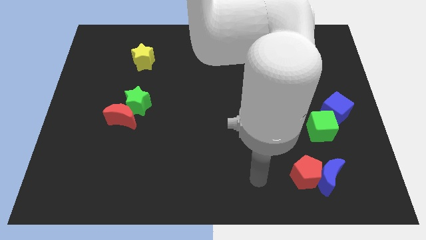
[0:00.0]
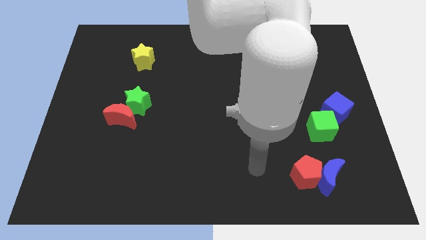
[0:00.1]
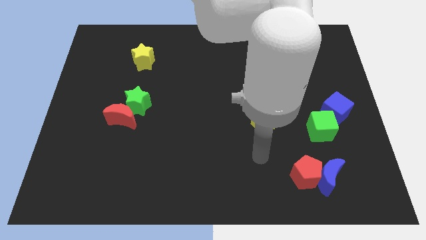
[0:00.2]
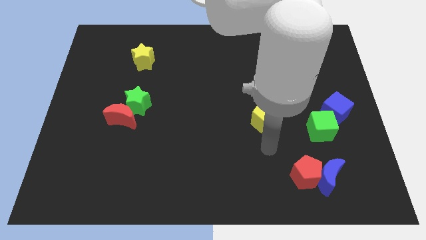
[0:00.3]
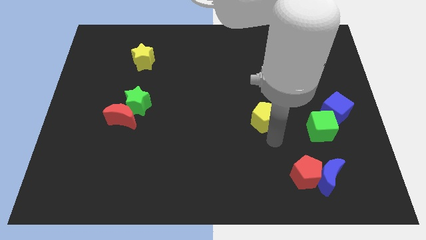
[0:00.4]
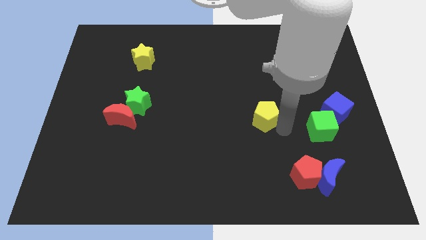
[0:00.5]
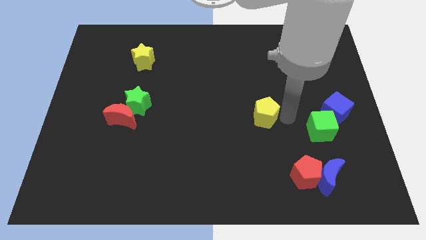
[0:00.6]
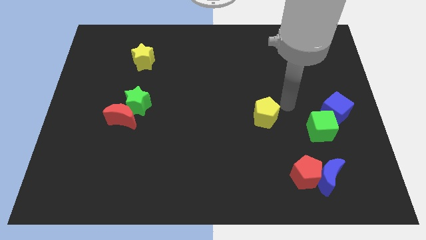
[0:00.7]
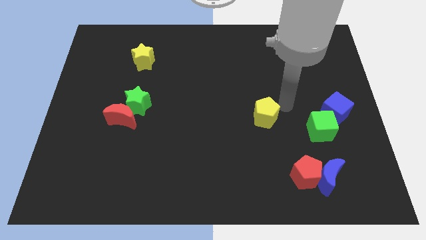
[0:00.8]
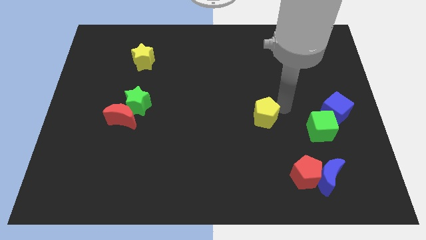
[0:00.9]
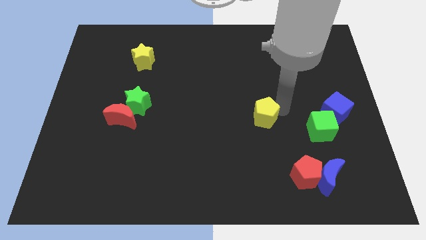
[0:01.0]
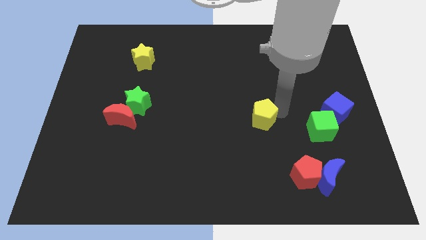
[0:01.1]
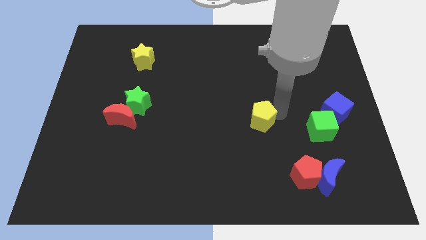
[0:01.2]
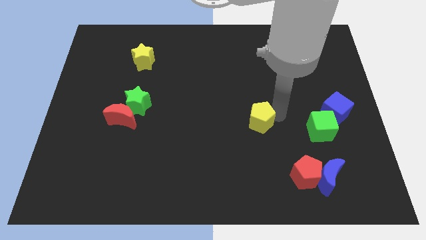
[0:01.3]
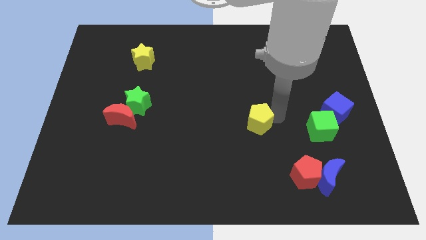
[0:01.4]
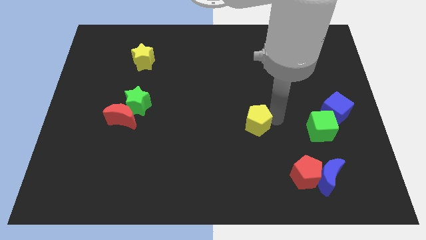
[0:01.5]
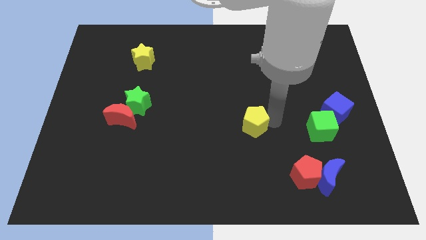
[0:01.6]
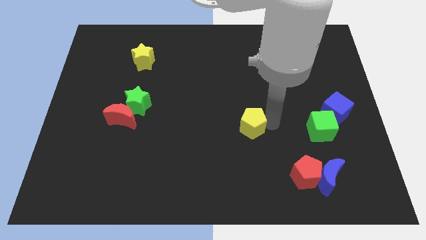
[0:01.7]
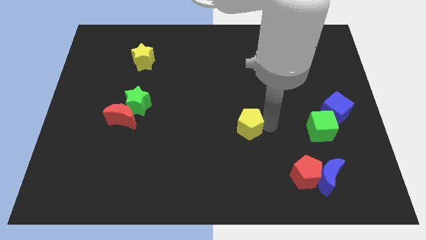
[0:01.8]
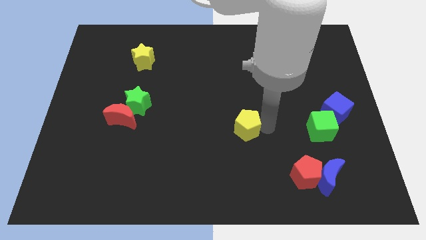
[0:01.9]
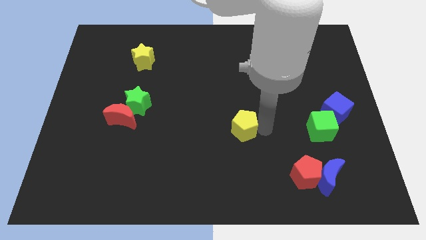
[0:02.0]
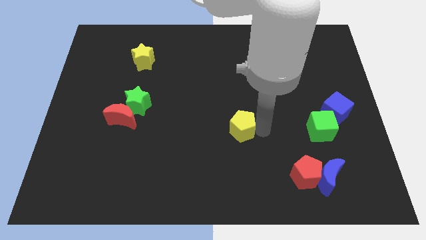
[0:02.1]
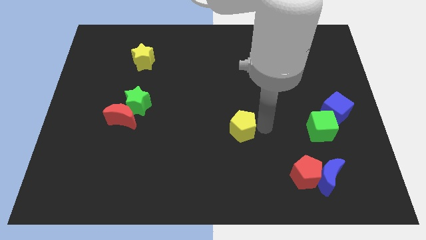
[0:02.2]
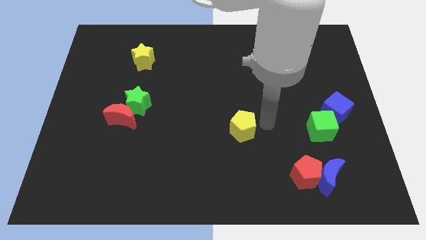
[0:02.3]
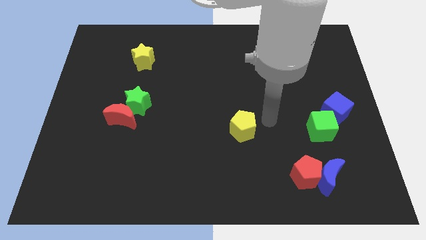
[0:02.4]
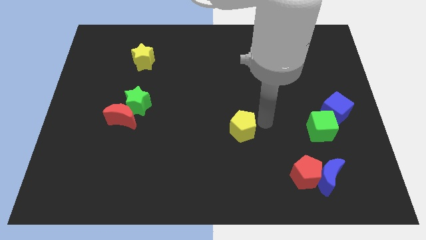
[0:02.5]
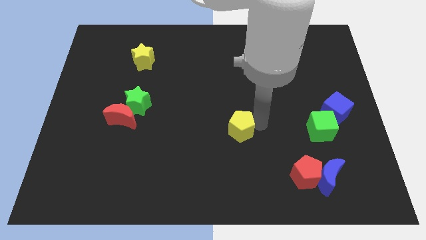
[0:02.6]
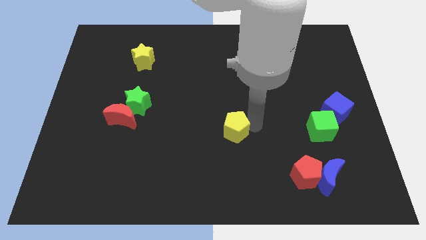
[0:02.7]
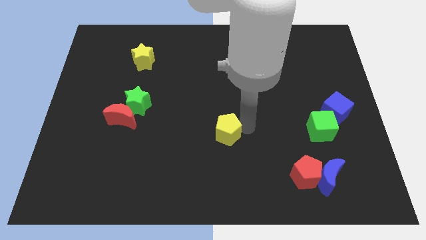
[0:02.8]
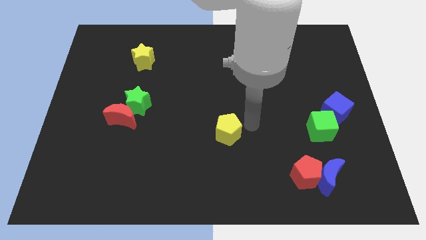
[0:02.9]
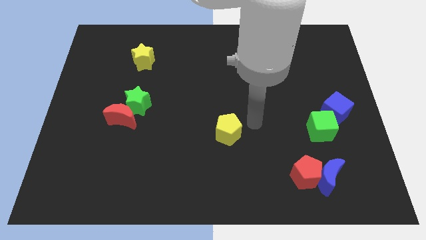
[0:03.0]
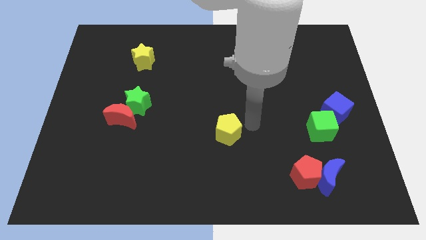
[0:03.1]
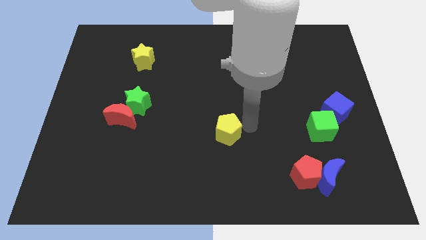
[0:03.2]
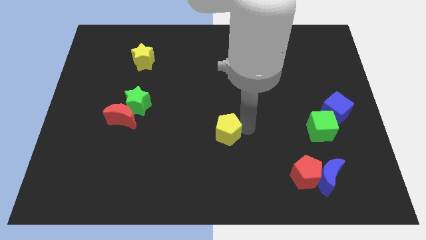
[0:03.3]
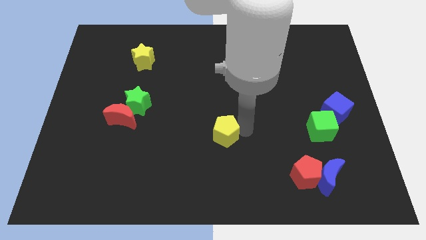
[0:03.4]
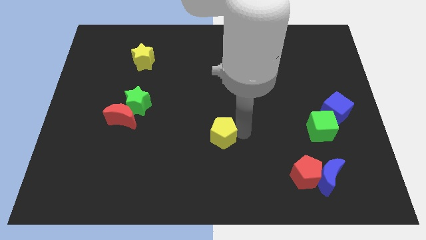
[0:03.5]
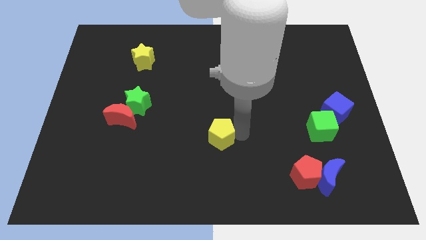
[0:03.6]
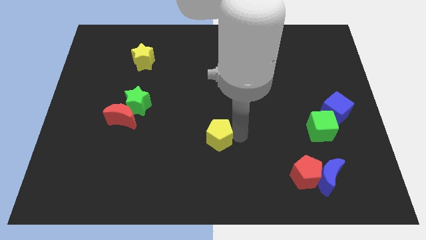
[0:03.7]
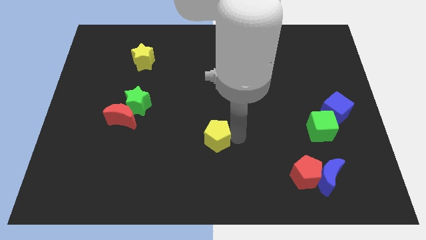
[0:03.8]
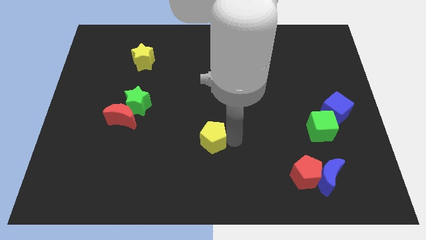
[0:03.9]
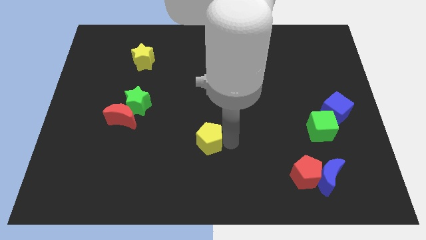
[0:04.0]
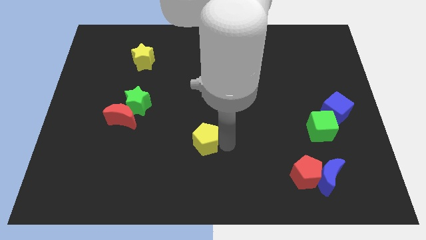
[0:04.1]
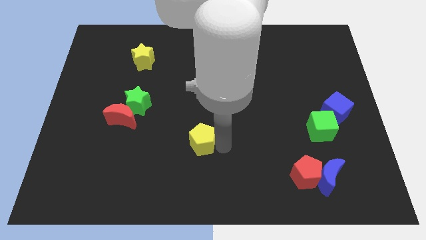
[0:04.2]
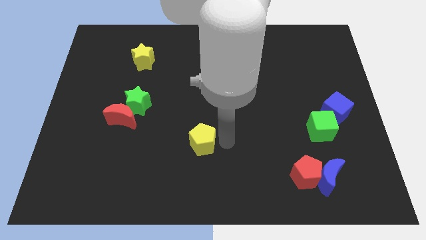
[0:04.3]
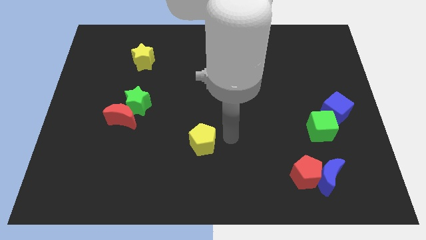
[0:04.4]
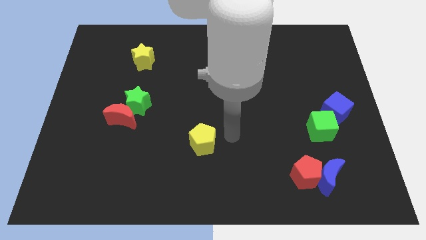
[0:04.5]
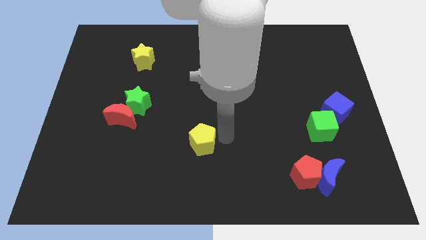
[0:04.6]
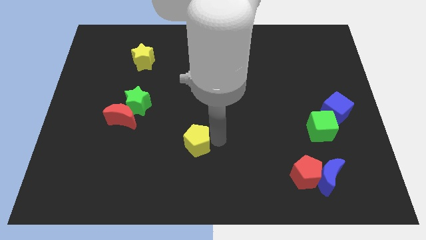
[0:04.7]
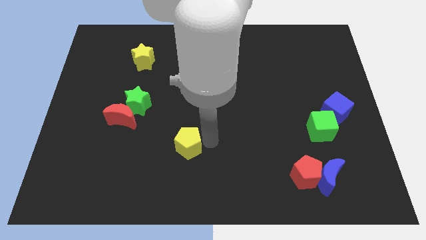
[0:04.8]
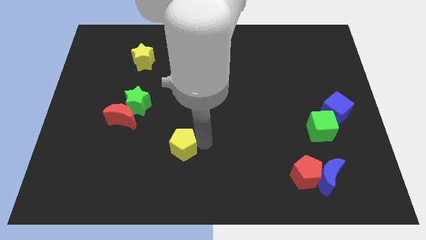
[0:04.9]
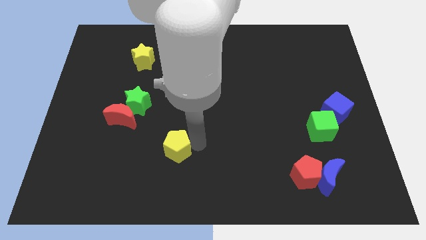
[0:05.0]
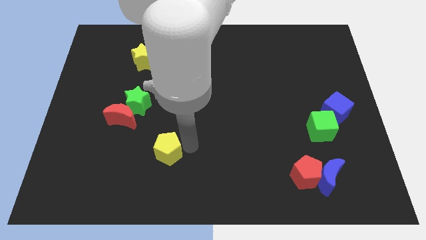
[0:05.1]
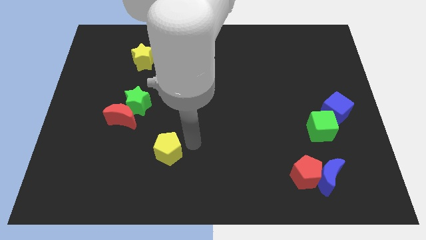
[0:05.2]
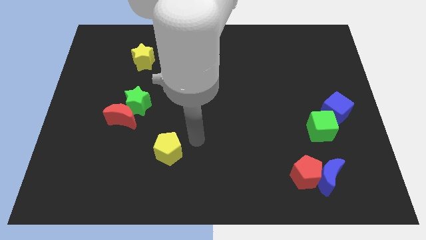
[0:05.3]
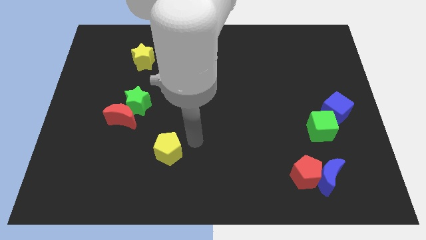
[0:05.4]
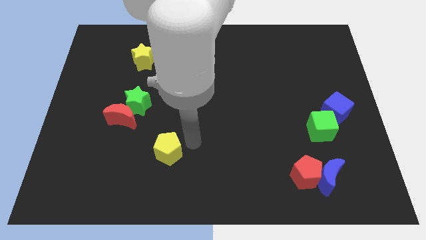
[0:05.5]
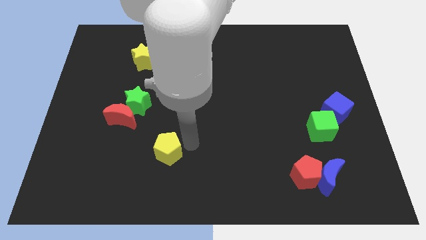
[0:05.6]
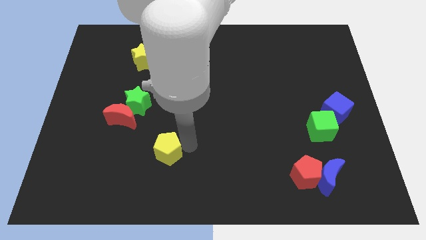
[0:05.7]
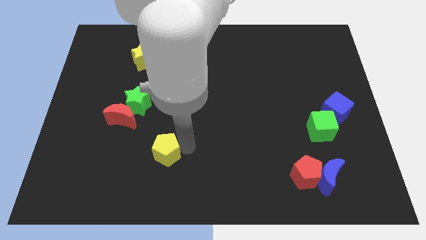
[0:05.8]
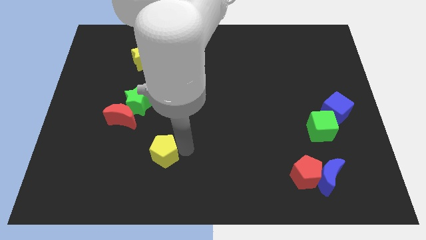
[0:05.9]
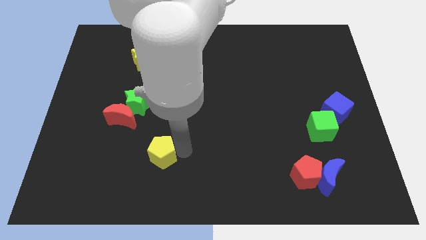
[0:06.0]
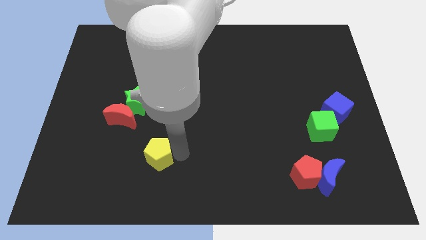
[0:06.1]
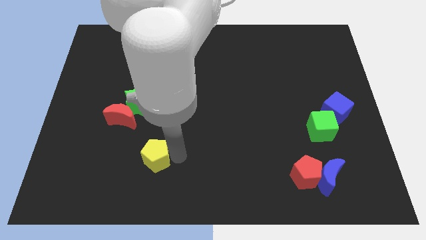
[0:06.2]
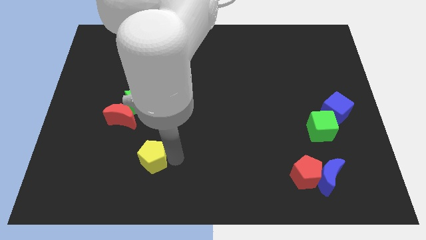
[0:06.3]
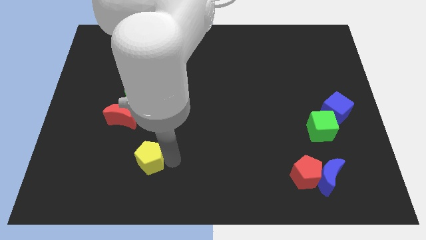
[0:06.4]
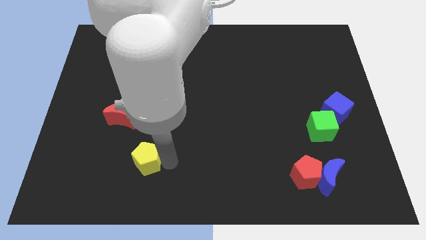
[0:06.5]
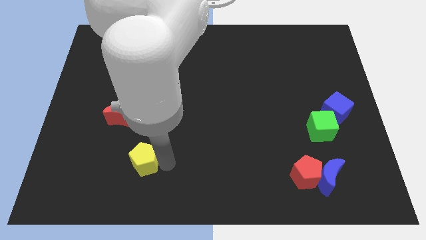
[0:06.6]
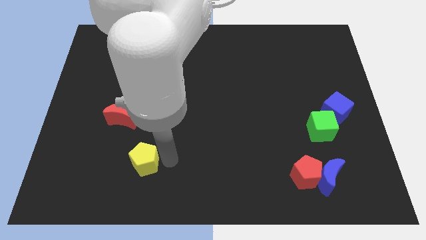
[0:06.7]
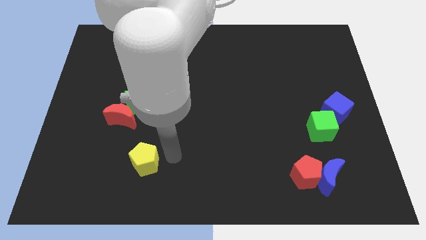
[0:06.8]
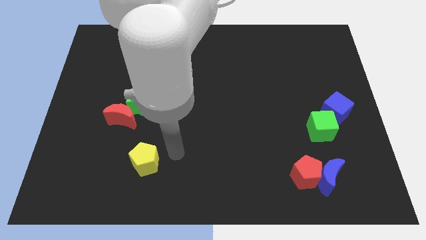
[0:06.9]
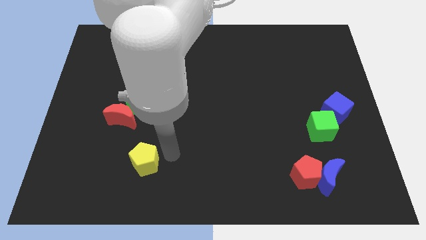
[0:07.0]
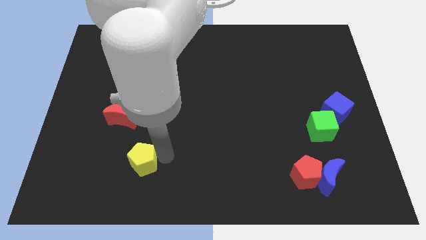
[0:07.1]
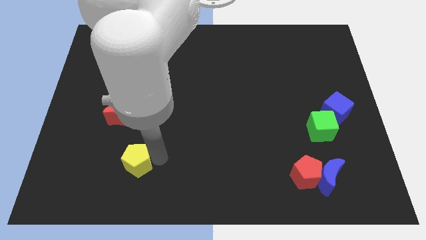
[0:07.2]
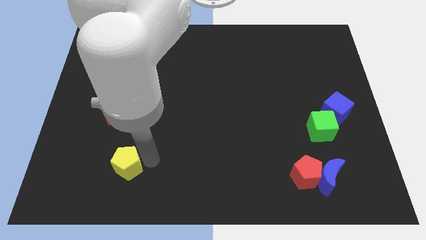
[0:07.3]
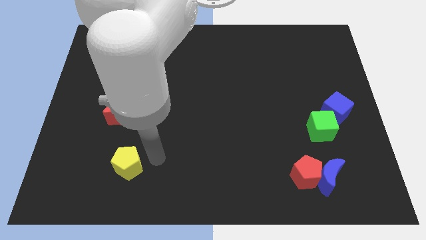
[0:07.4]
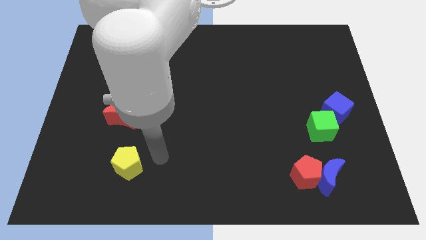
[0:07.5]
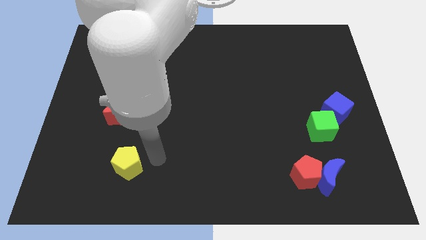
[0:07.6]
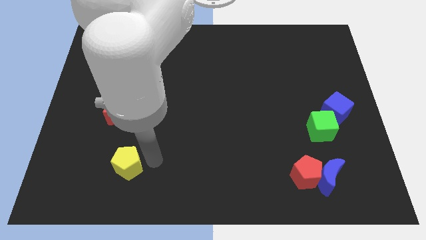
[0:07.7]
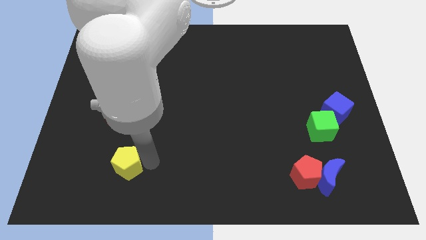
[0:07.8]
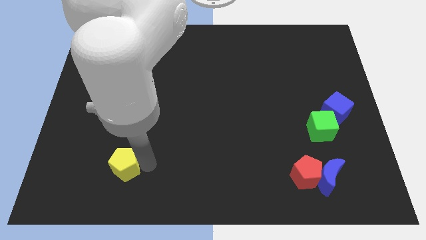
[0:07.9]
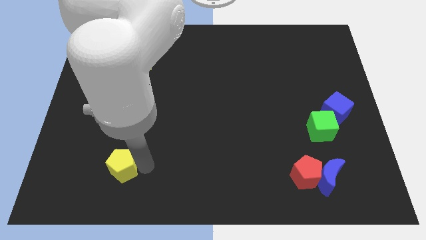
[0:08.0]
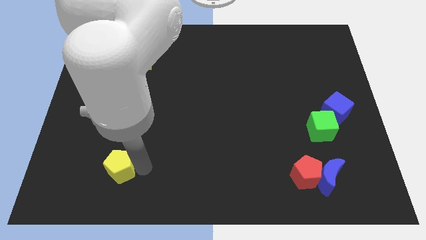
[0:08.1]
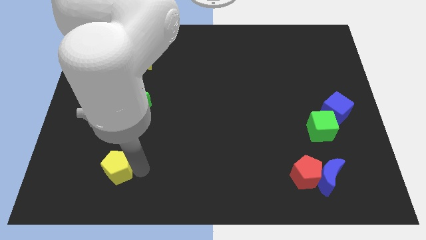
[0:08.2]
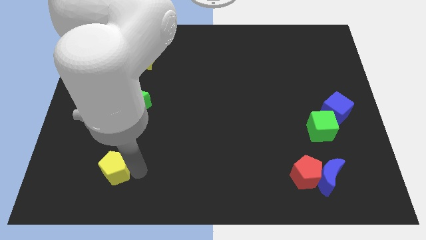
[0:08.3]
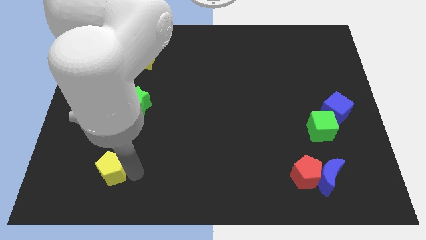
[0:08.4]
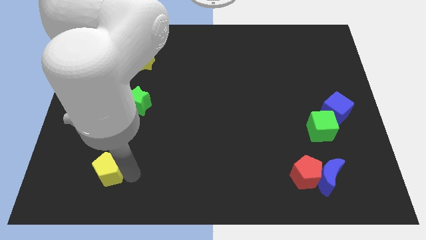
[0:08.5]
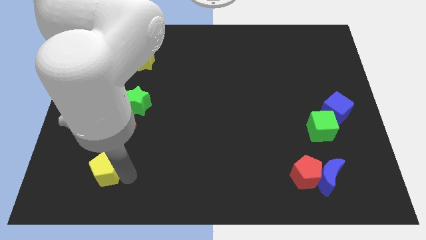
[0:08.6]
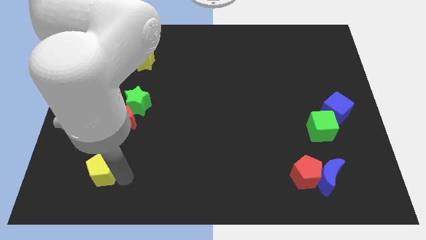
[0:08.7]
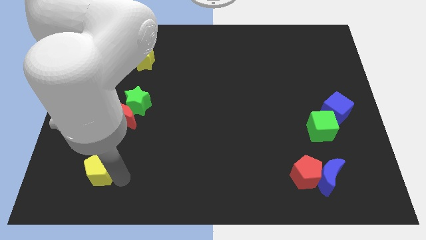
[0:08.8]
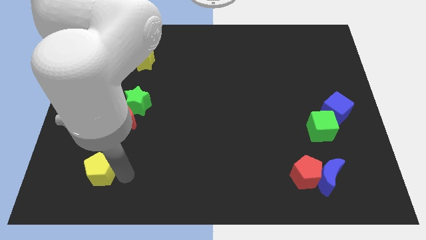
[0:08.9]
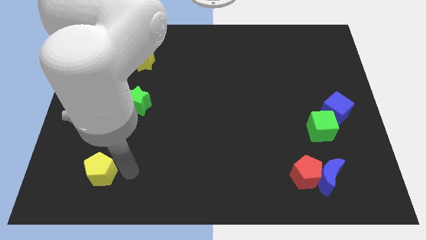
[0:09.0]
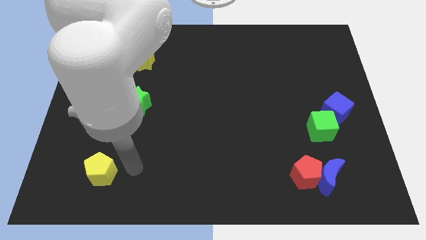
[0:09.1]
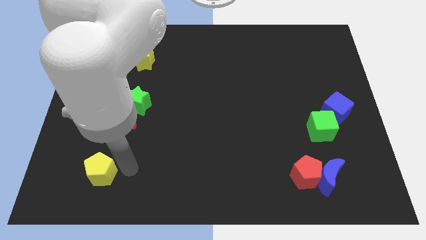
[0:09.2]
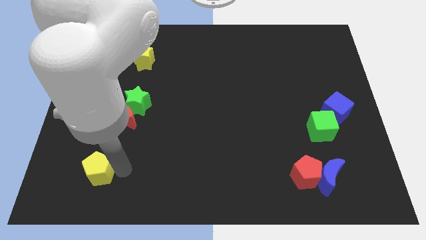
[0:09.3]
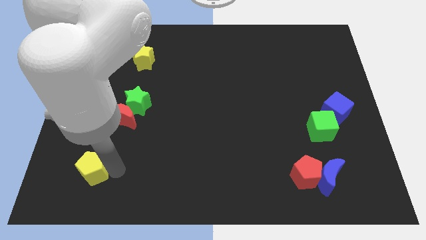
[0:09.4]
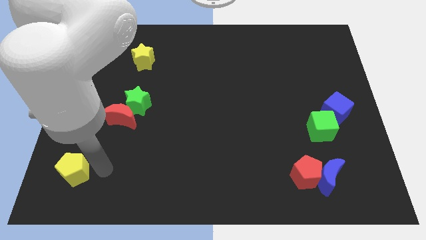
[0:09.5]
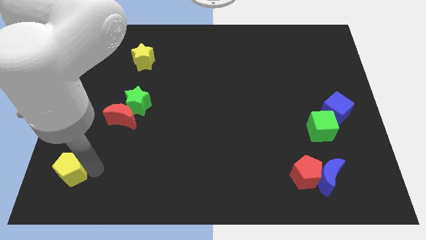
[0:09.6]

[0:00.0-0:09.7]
move the yellow pentagon to the lower left corner
